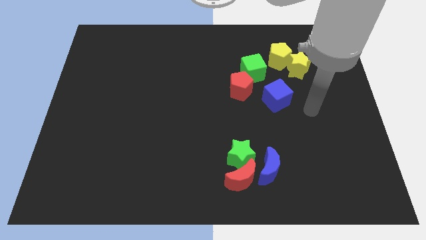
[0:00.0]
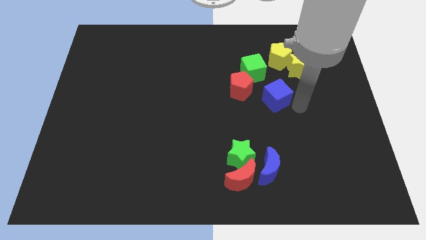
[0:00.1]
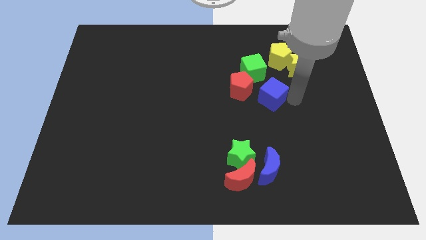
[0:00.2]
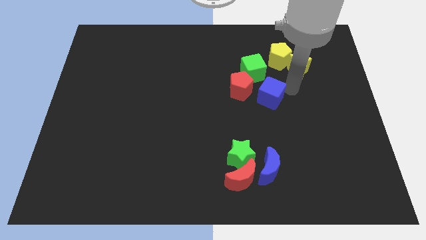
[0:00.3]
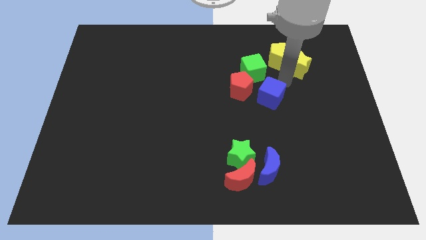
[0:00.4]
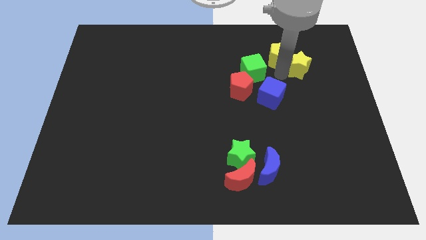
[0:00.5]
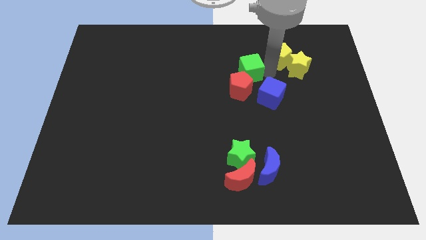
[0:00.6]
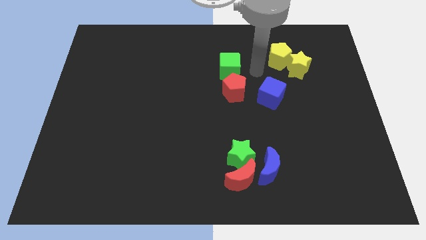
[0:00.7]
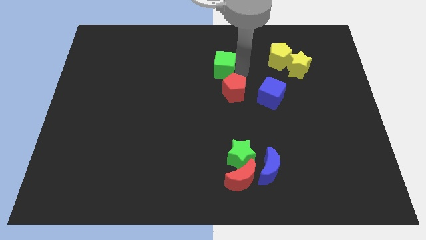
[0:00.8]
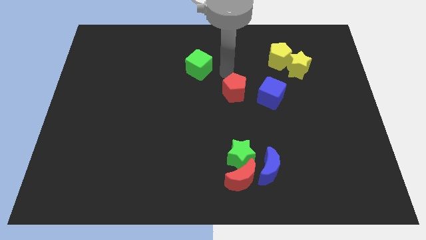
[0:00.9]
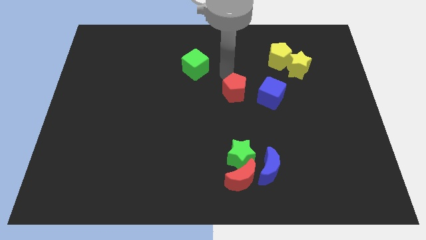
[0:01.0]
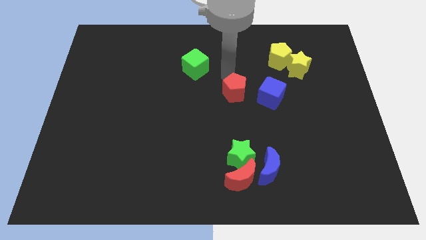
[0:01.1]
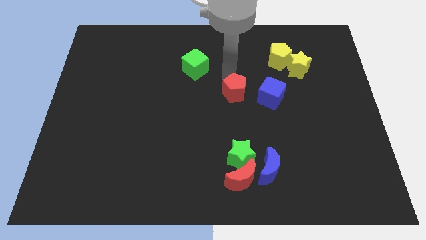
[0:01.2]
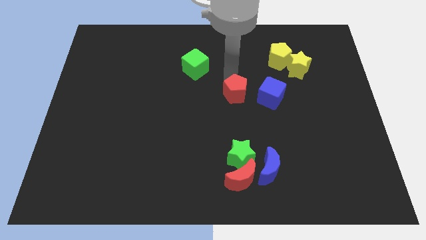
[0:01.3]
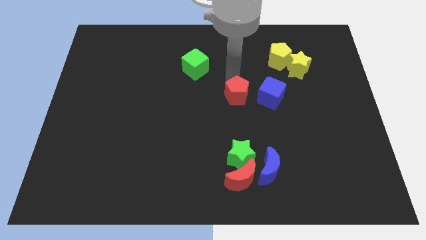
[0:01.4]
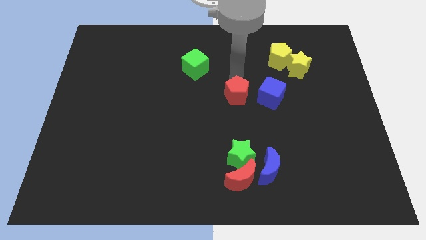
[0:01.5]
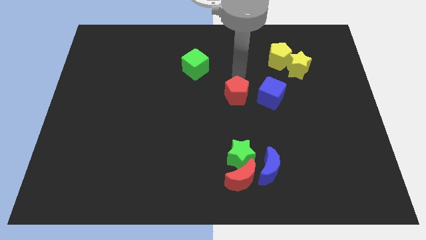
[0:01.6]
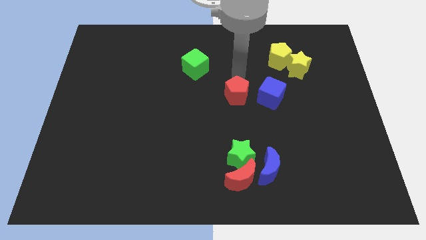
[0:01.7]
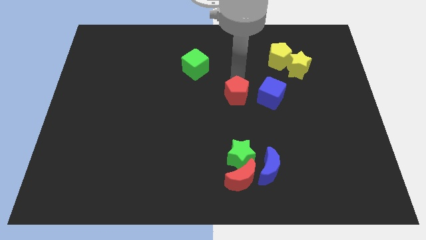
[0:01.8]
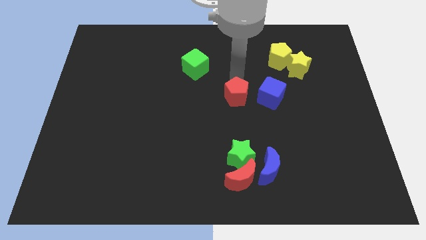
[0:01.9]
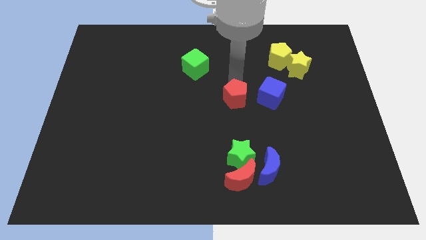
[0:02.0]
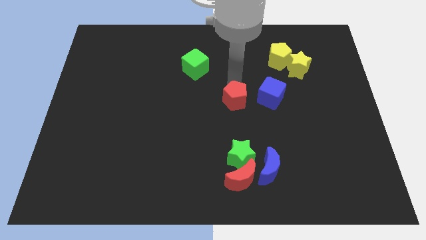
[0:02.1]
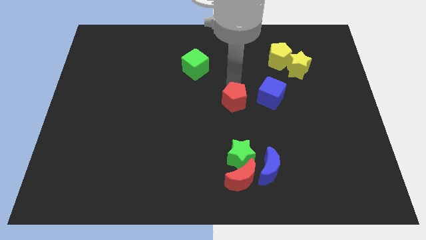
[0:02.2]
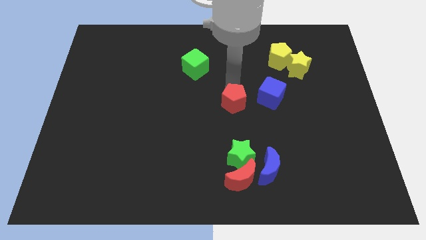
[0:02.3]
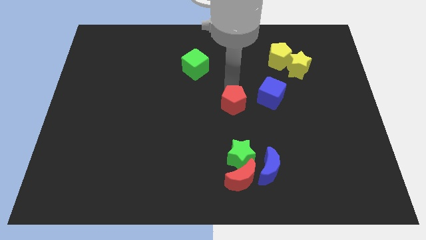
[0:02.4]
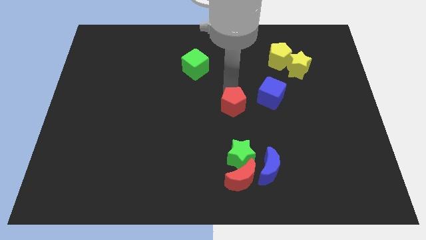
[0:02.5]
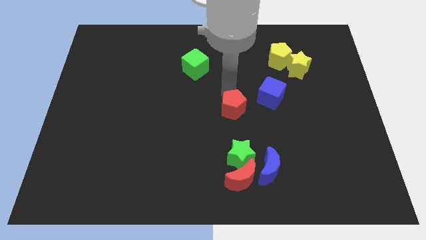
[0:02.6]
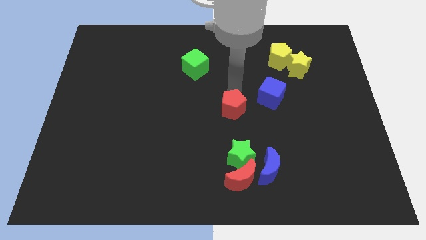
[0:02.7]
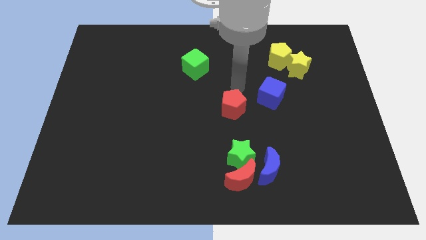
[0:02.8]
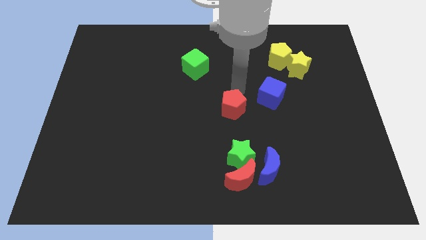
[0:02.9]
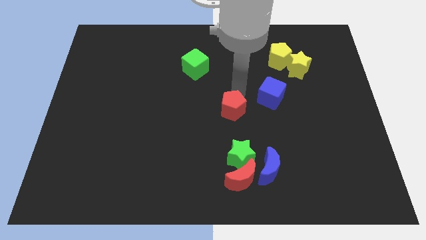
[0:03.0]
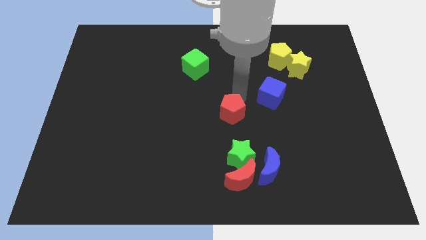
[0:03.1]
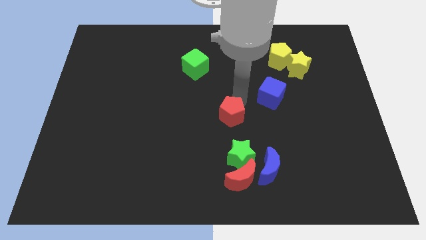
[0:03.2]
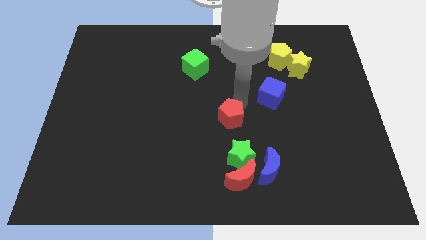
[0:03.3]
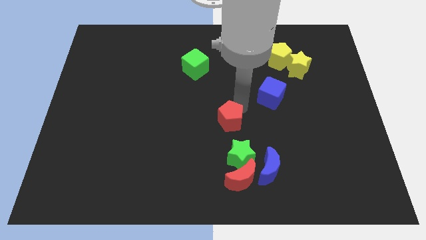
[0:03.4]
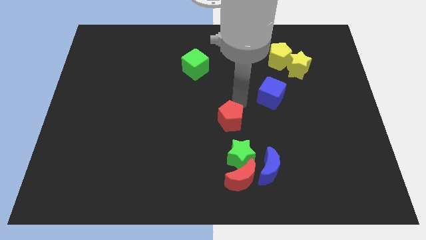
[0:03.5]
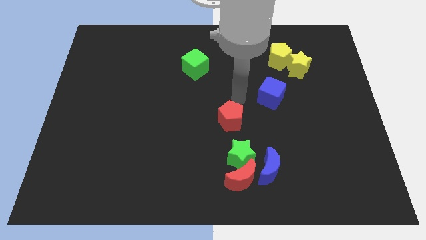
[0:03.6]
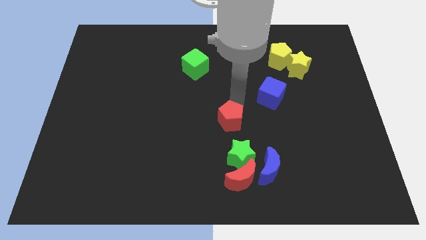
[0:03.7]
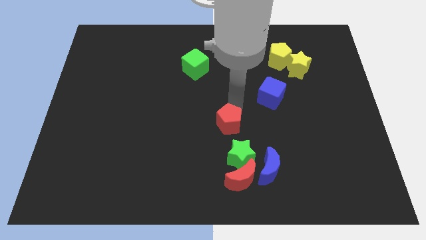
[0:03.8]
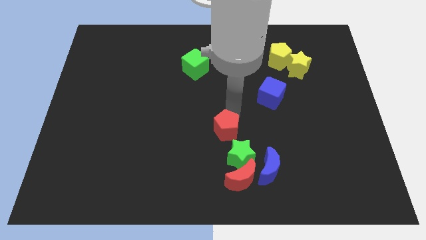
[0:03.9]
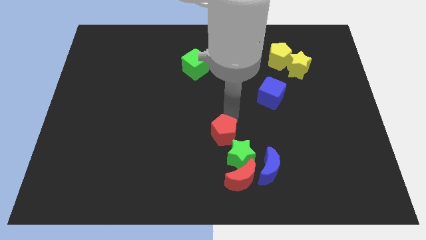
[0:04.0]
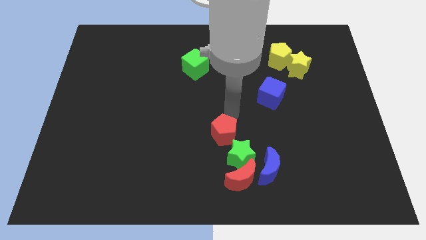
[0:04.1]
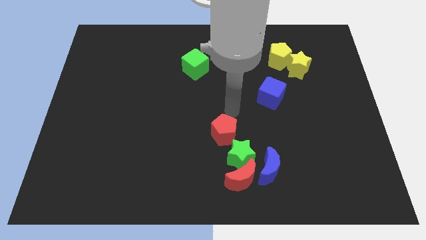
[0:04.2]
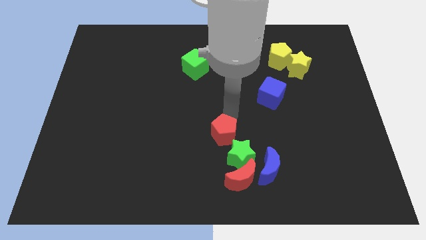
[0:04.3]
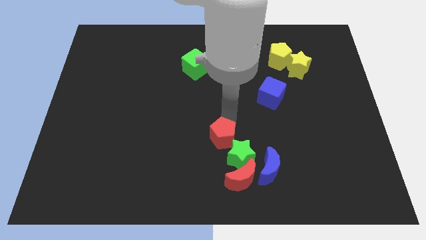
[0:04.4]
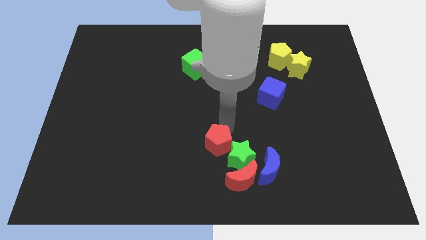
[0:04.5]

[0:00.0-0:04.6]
push the red pentagon to the top left of the red moon

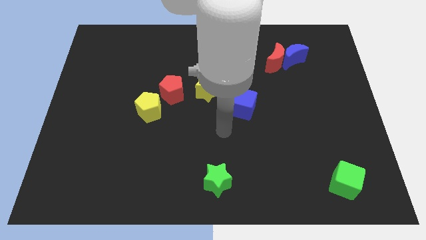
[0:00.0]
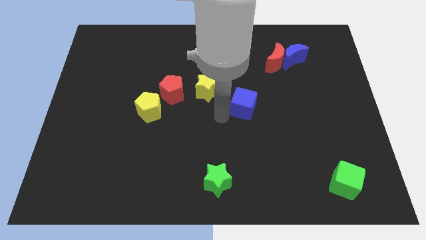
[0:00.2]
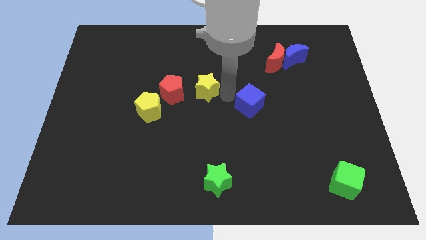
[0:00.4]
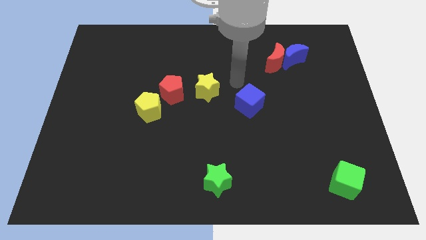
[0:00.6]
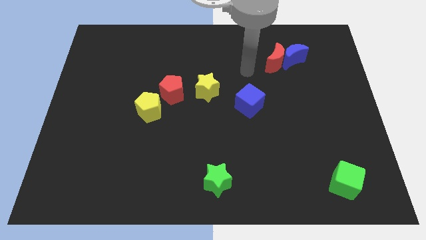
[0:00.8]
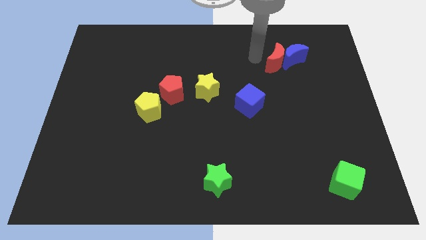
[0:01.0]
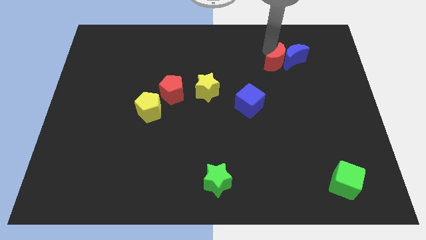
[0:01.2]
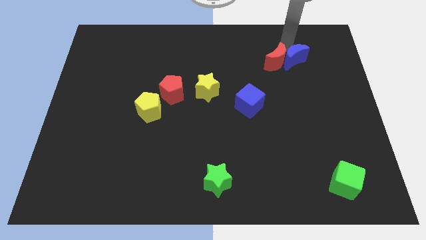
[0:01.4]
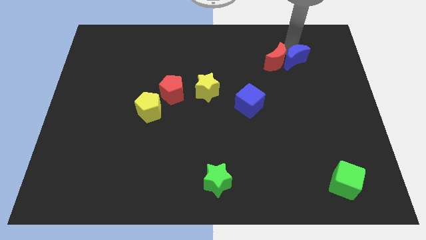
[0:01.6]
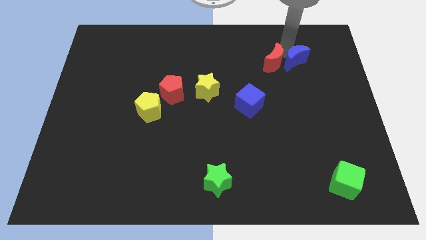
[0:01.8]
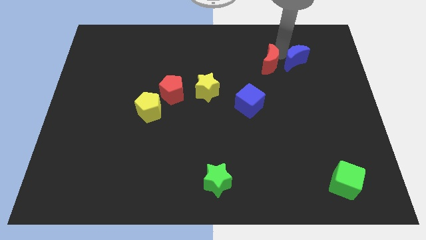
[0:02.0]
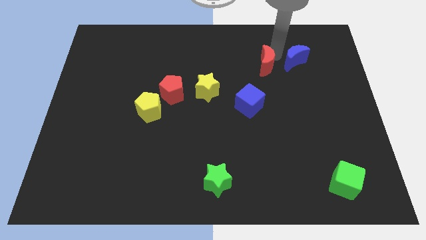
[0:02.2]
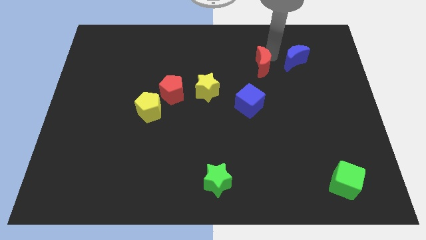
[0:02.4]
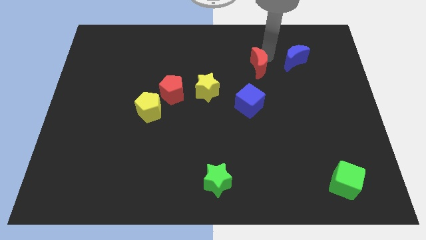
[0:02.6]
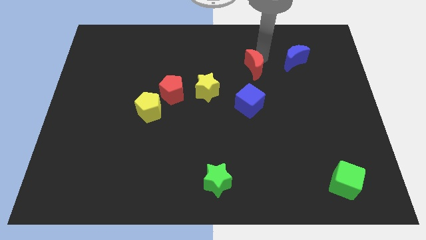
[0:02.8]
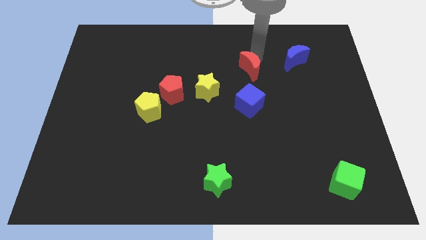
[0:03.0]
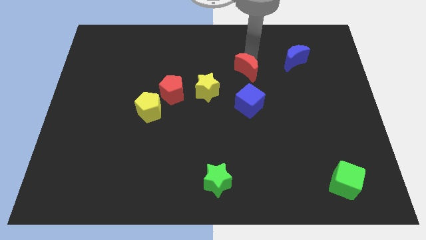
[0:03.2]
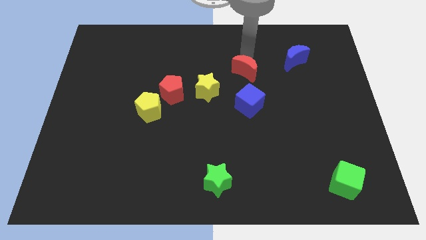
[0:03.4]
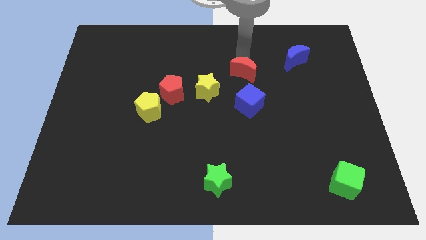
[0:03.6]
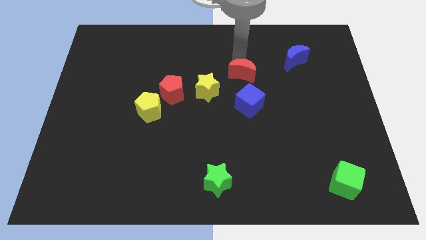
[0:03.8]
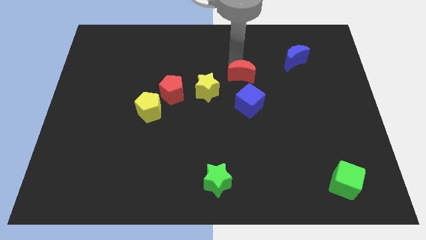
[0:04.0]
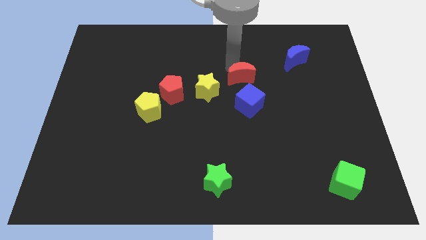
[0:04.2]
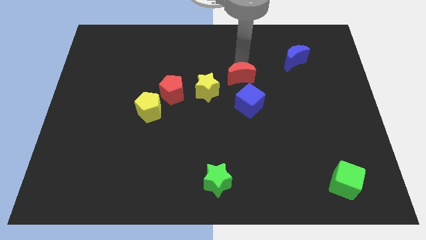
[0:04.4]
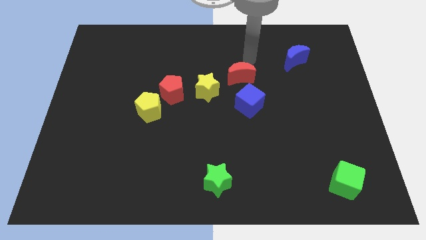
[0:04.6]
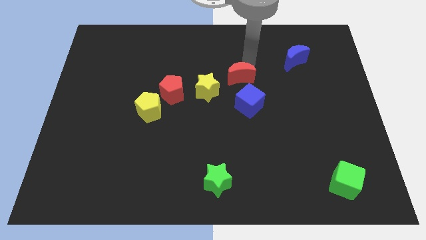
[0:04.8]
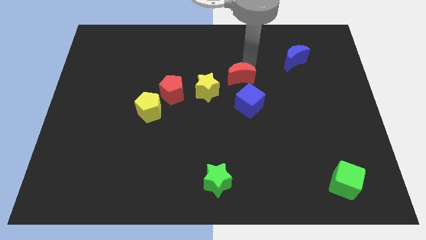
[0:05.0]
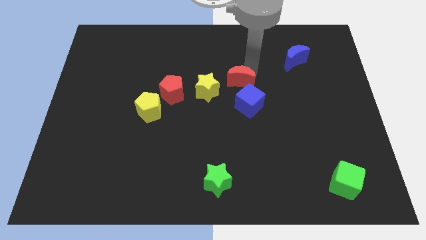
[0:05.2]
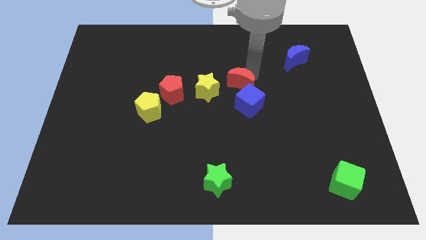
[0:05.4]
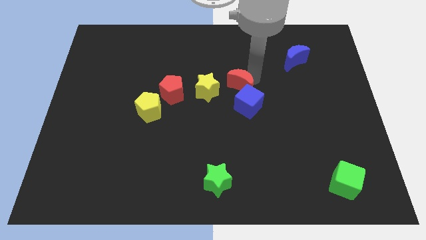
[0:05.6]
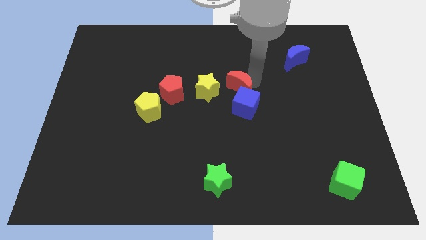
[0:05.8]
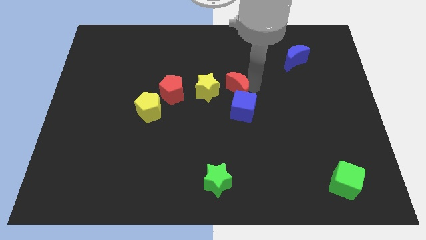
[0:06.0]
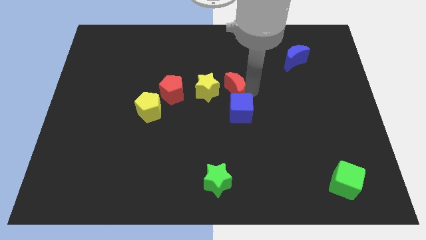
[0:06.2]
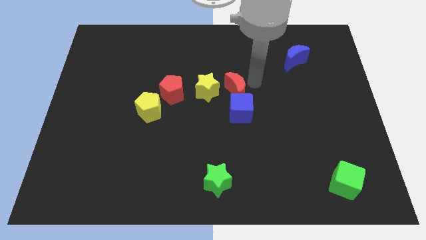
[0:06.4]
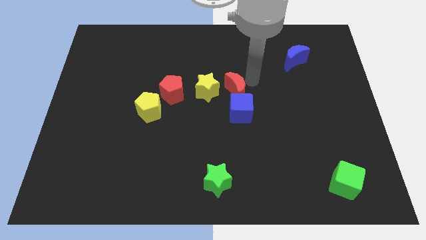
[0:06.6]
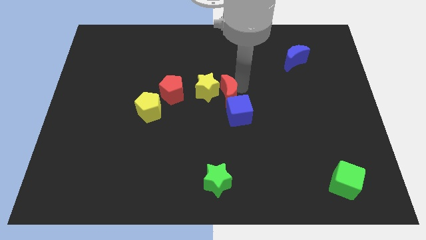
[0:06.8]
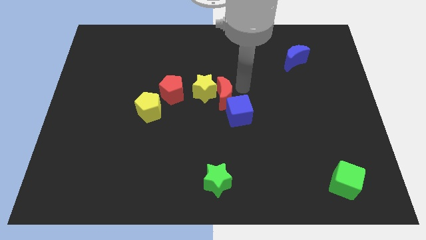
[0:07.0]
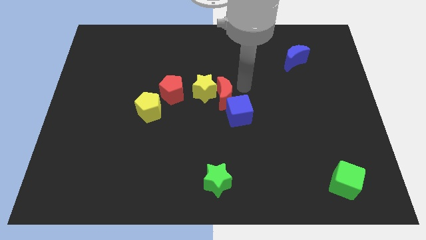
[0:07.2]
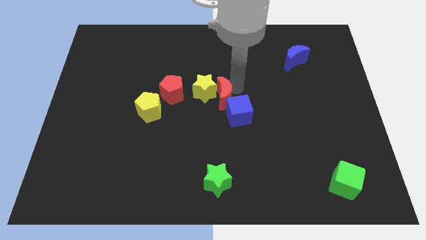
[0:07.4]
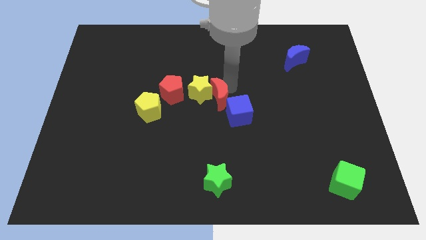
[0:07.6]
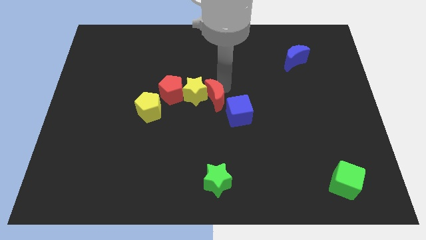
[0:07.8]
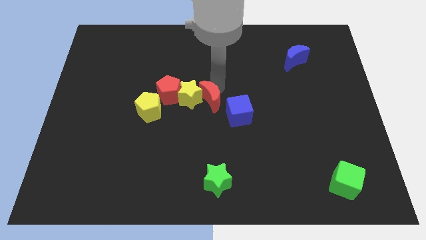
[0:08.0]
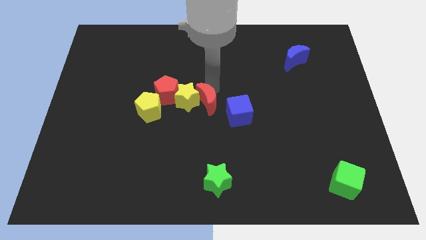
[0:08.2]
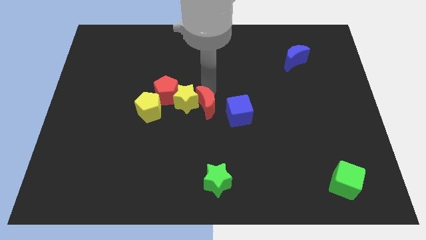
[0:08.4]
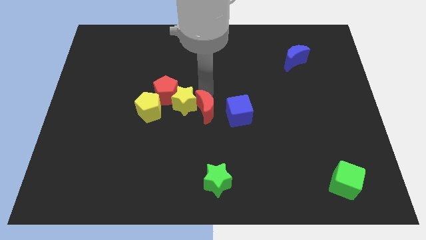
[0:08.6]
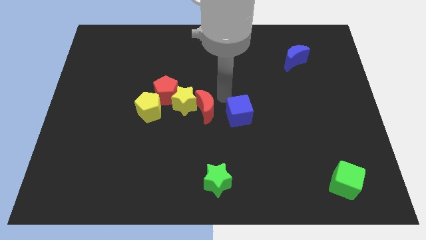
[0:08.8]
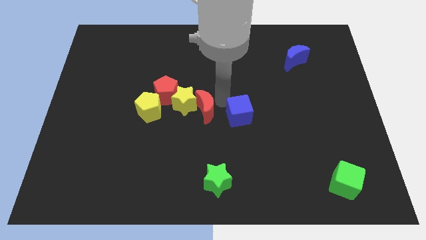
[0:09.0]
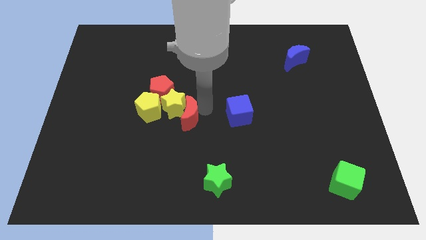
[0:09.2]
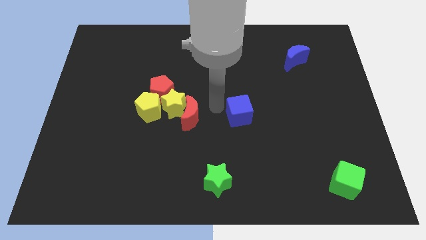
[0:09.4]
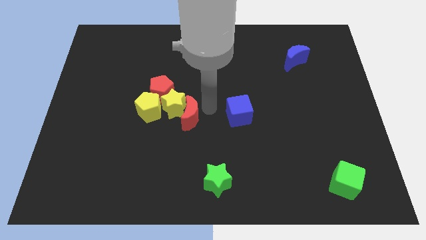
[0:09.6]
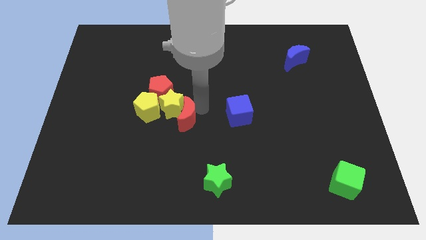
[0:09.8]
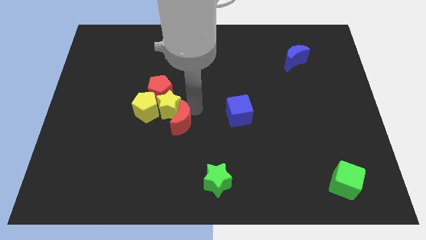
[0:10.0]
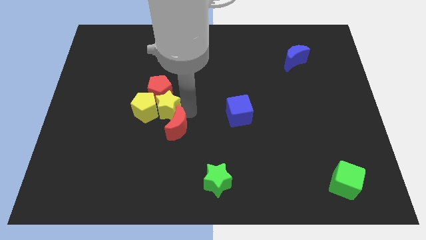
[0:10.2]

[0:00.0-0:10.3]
put the red moon to the bottom of the red pentagon
